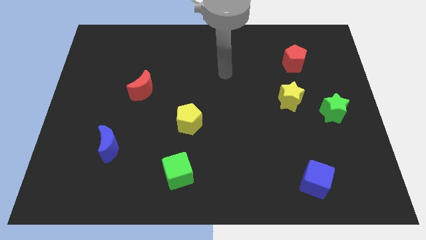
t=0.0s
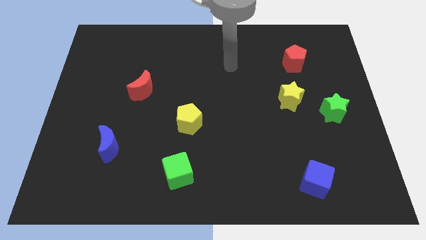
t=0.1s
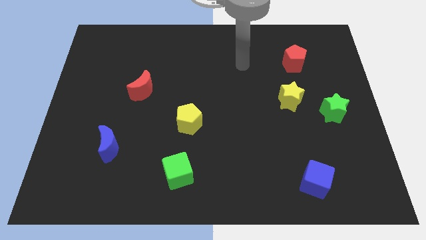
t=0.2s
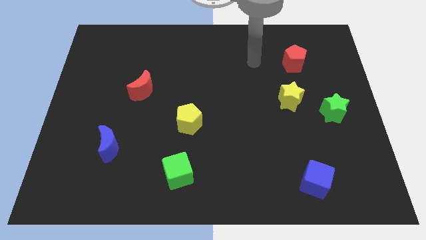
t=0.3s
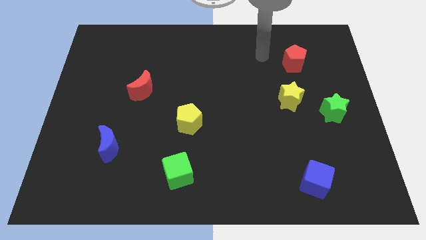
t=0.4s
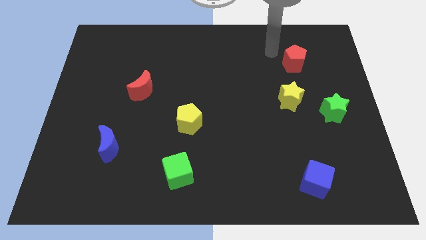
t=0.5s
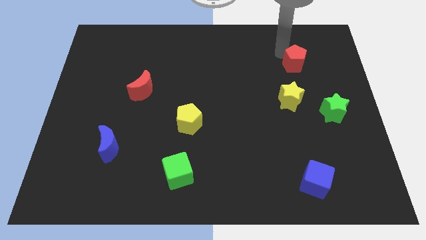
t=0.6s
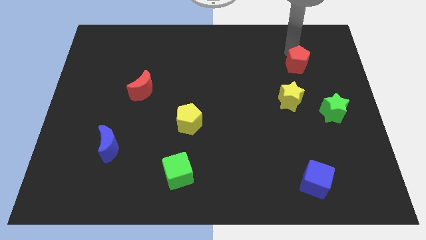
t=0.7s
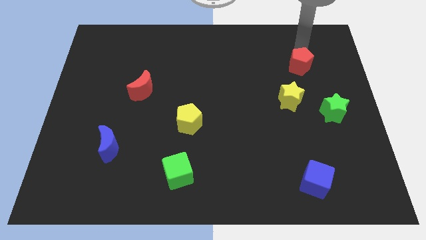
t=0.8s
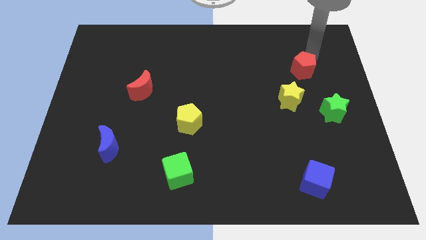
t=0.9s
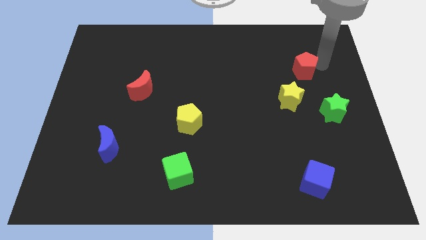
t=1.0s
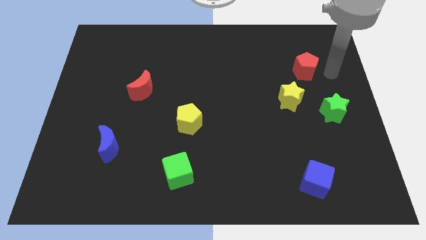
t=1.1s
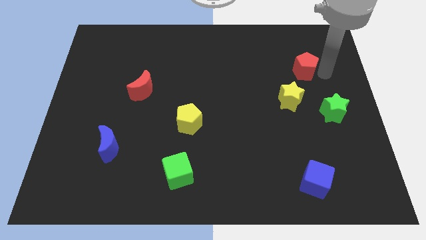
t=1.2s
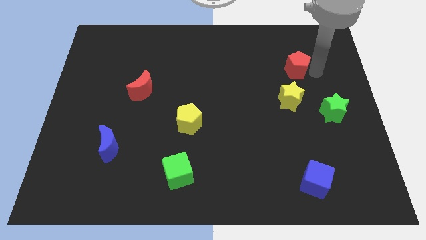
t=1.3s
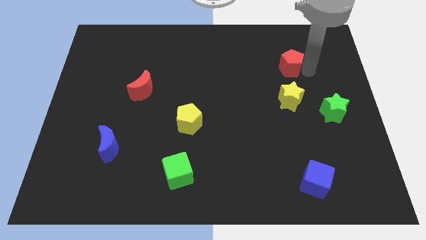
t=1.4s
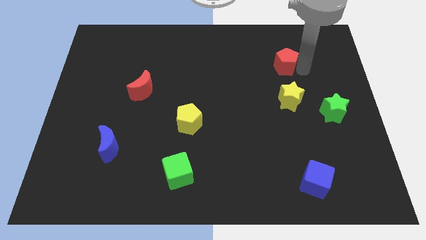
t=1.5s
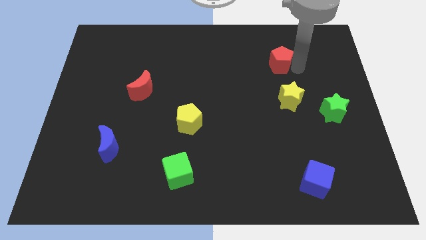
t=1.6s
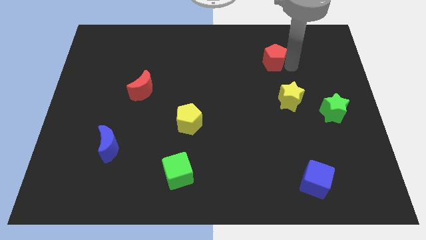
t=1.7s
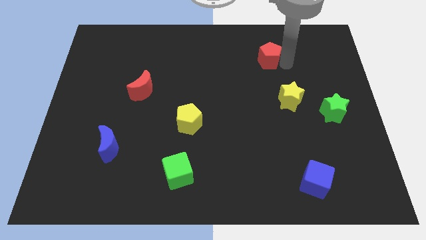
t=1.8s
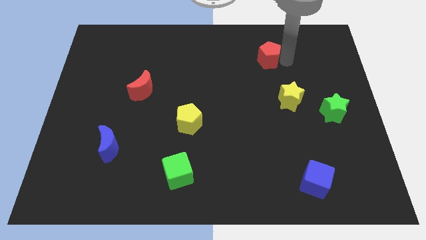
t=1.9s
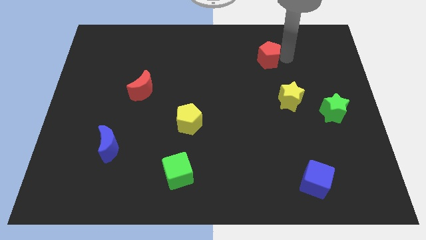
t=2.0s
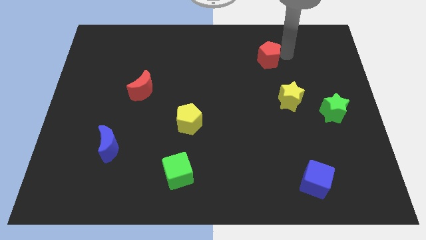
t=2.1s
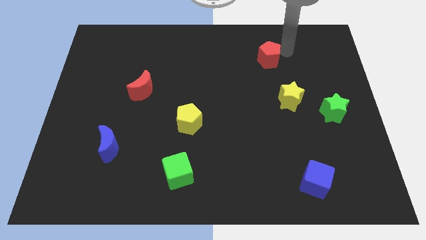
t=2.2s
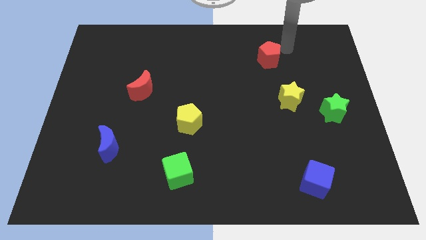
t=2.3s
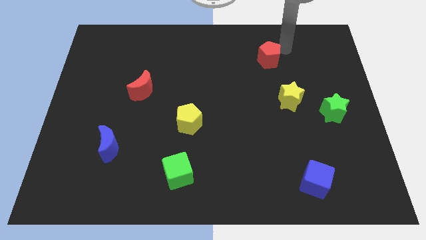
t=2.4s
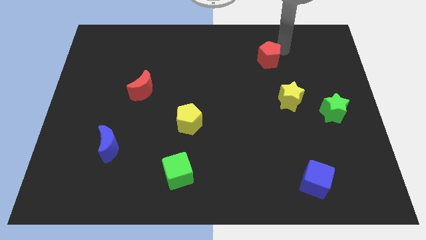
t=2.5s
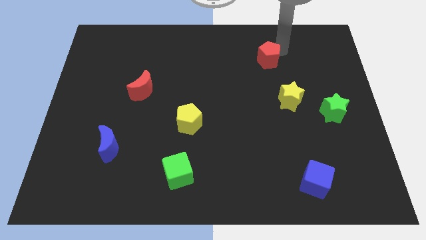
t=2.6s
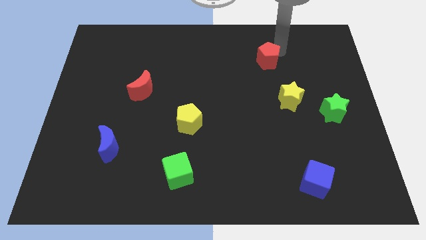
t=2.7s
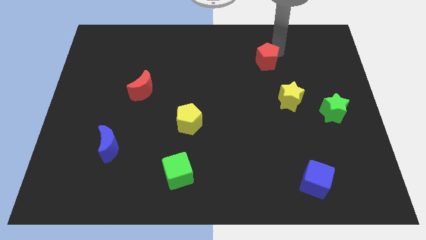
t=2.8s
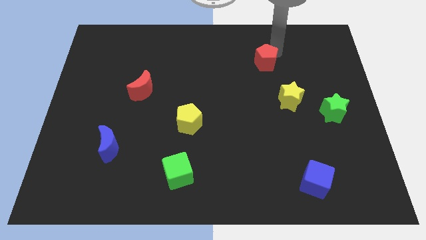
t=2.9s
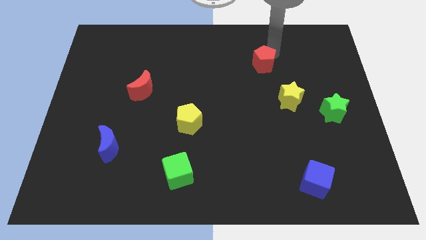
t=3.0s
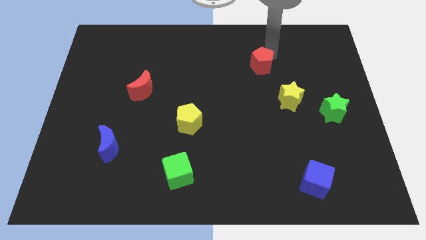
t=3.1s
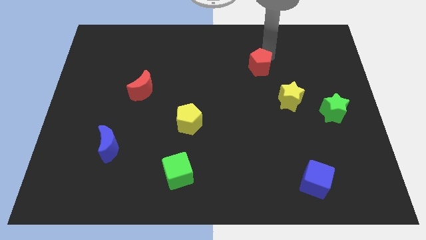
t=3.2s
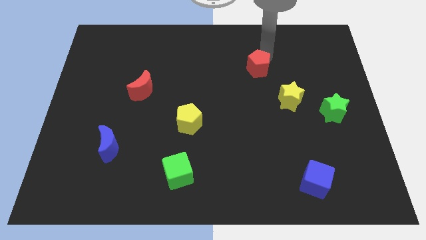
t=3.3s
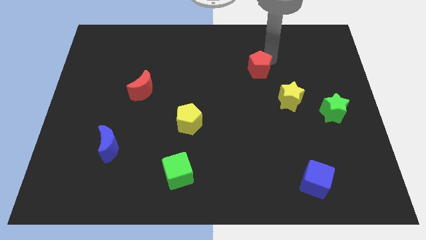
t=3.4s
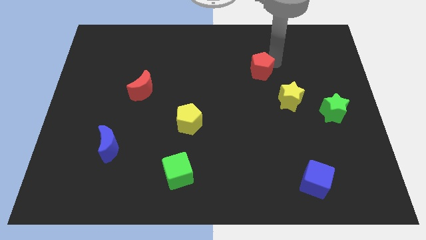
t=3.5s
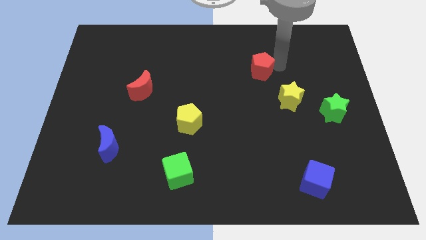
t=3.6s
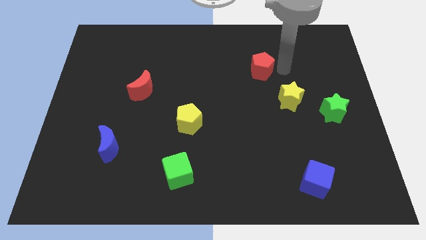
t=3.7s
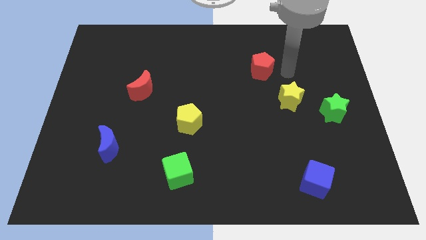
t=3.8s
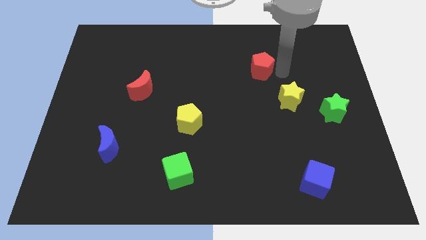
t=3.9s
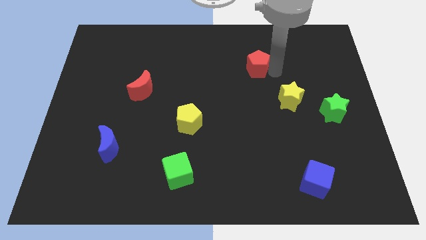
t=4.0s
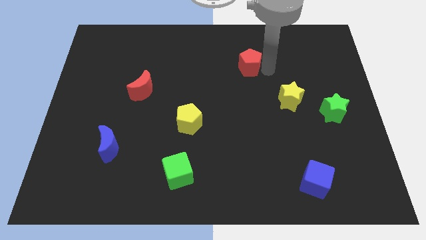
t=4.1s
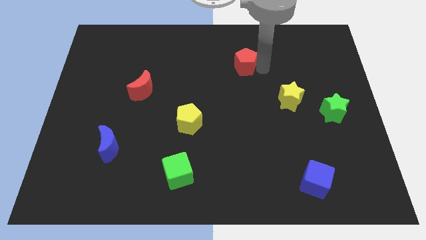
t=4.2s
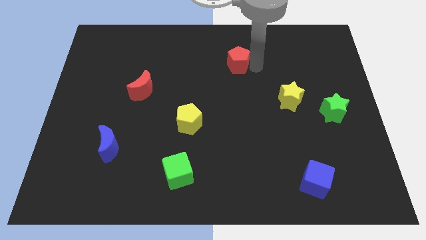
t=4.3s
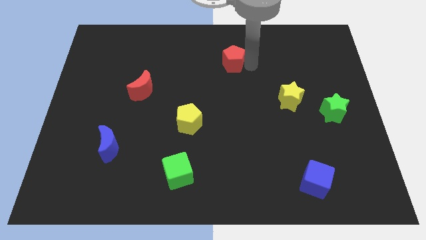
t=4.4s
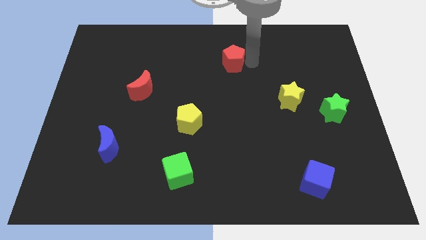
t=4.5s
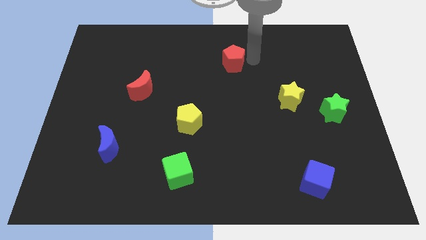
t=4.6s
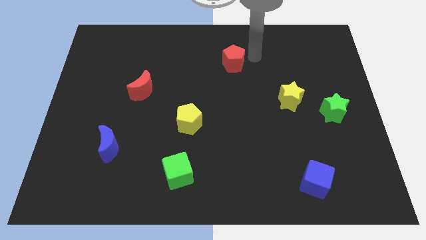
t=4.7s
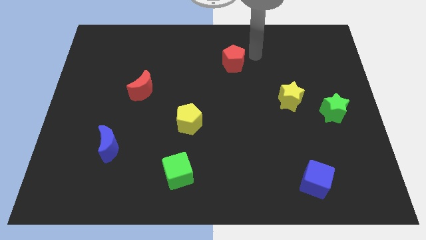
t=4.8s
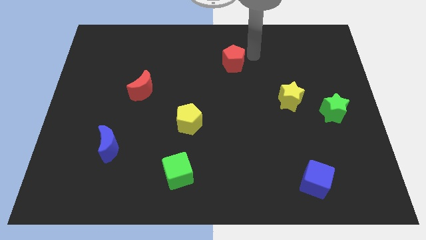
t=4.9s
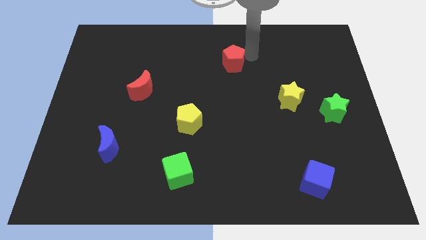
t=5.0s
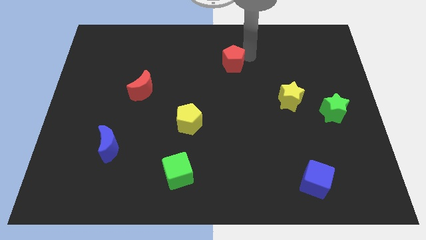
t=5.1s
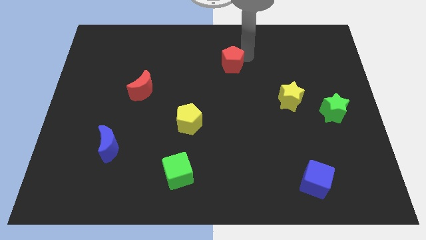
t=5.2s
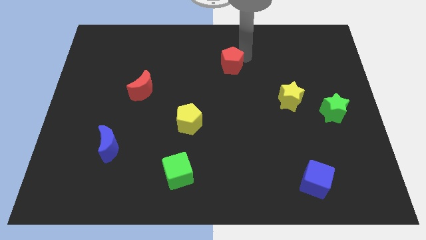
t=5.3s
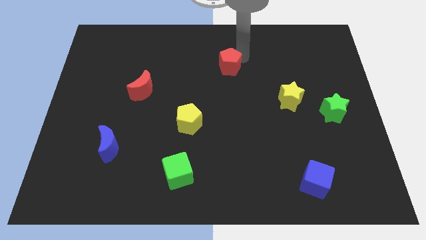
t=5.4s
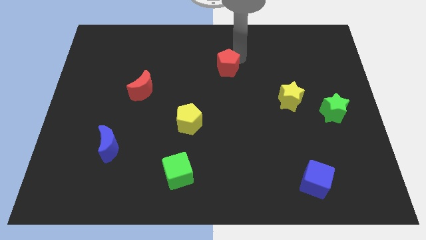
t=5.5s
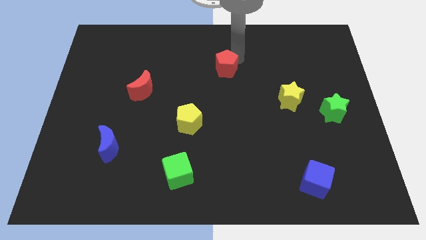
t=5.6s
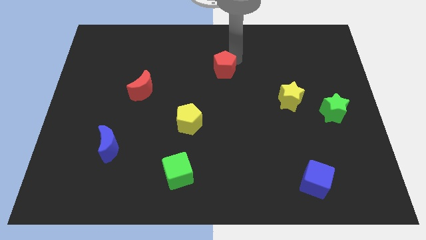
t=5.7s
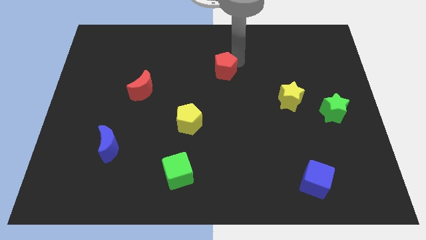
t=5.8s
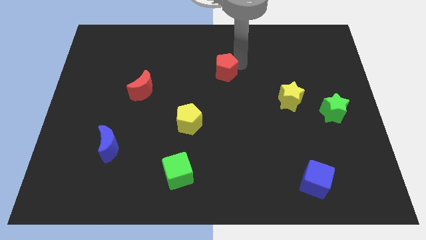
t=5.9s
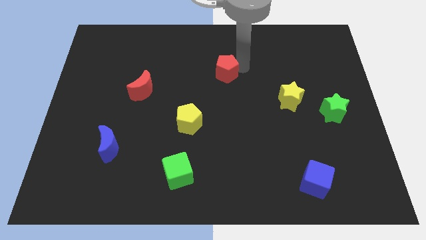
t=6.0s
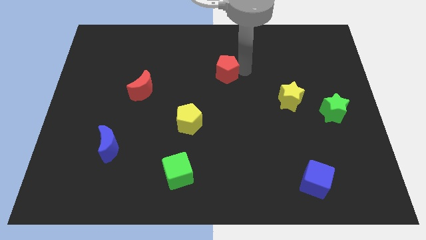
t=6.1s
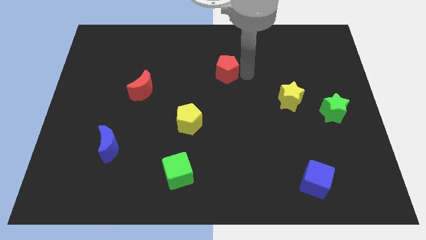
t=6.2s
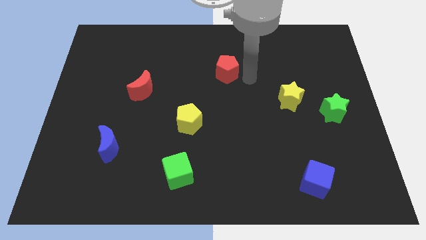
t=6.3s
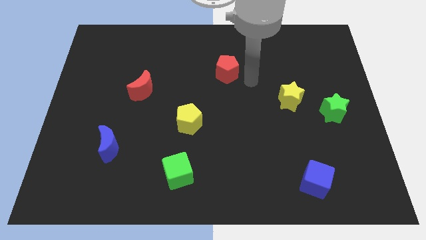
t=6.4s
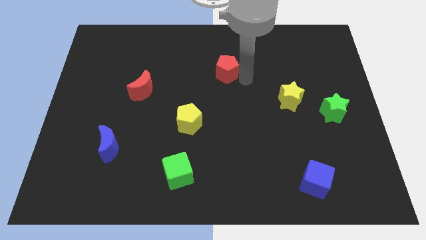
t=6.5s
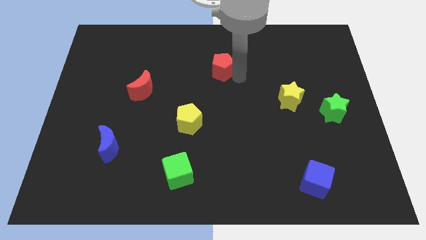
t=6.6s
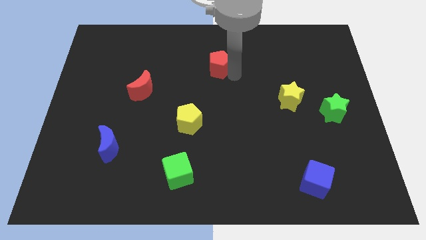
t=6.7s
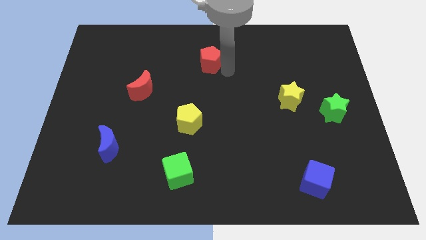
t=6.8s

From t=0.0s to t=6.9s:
slide the red pentagon to the left

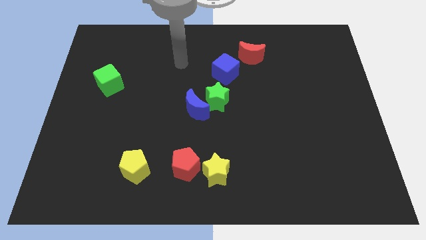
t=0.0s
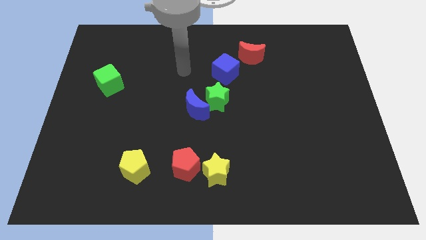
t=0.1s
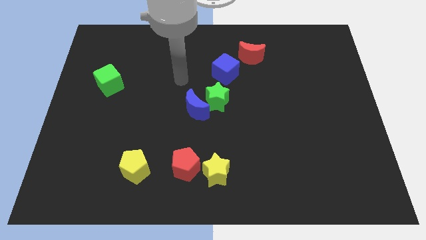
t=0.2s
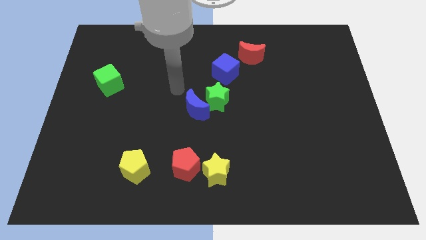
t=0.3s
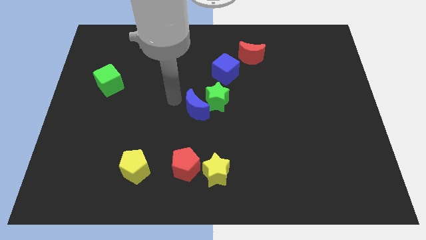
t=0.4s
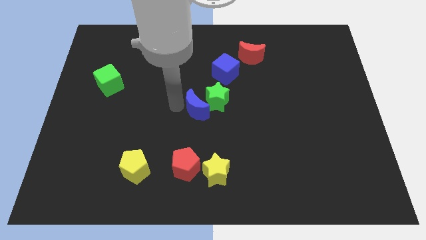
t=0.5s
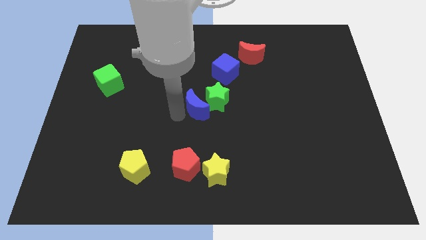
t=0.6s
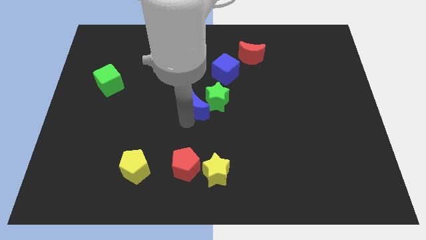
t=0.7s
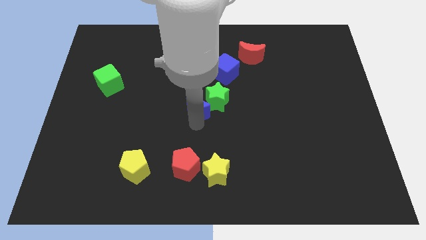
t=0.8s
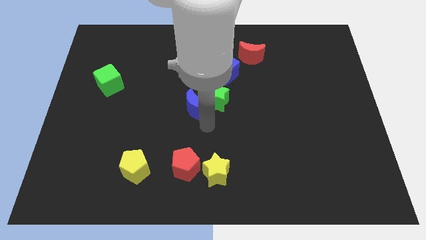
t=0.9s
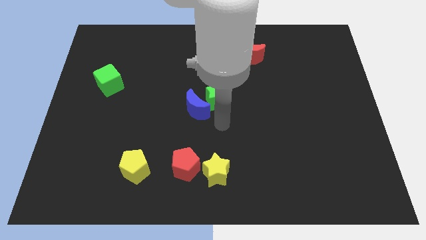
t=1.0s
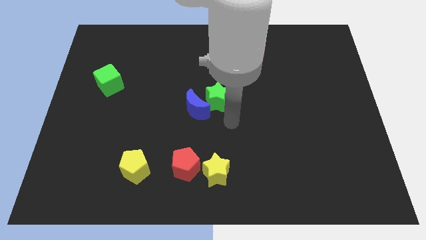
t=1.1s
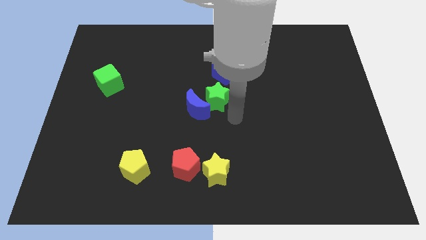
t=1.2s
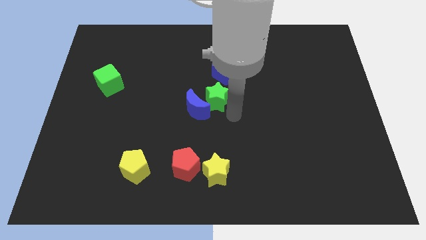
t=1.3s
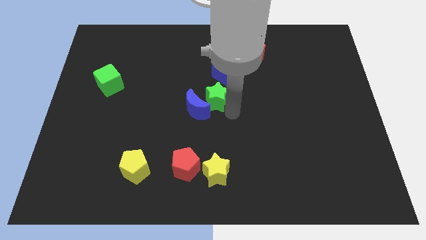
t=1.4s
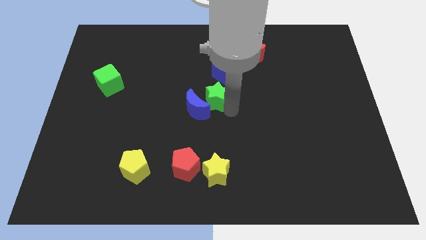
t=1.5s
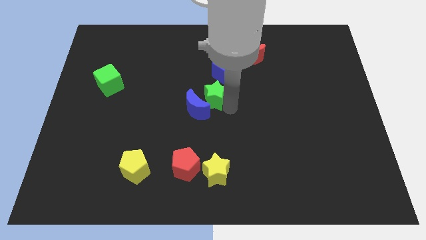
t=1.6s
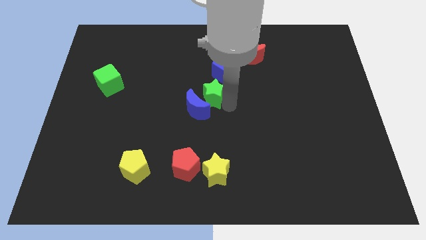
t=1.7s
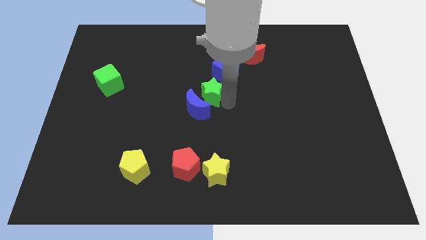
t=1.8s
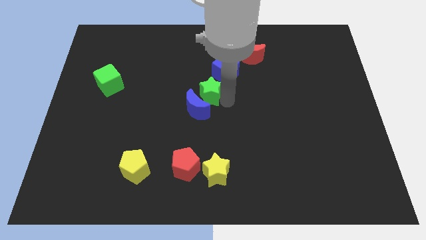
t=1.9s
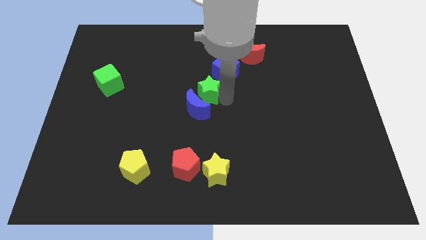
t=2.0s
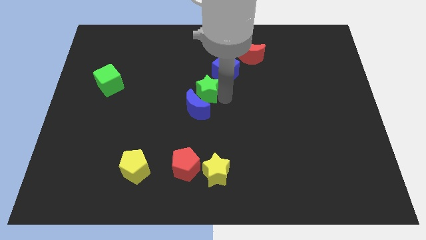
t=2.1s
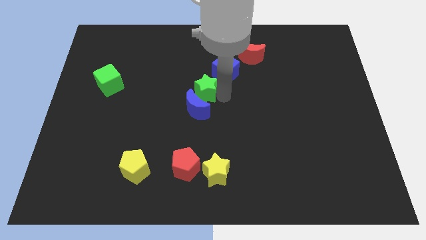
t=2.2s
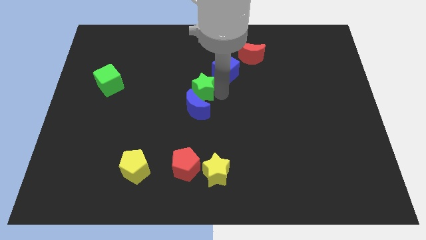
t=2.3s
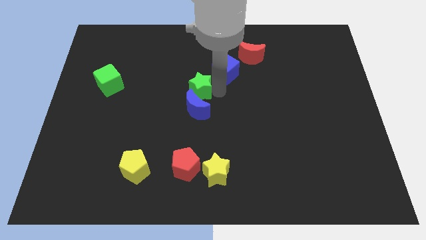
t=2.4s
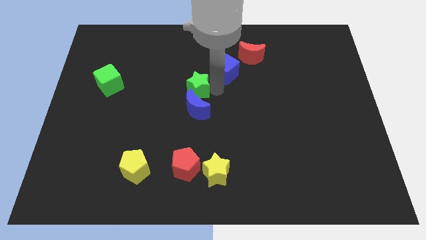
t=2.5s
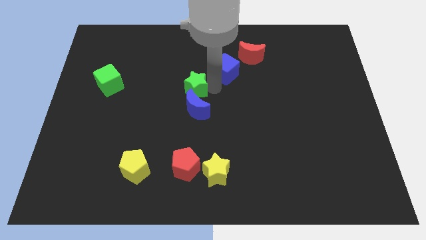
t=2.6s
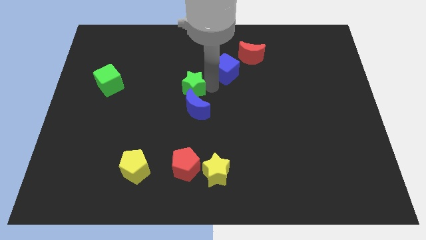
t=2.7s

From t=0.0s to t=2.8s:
slightly move the green star up and then to the left
